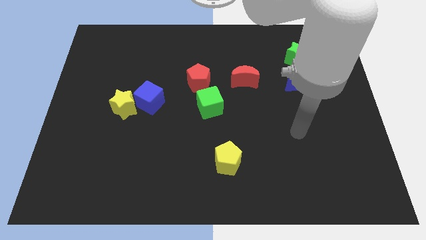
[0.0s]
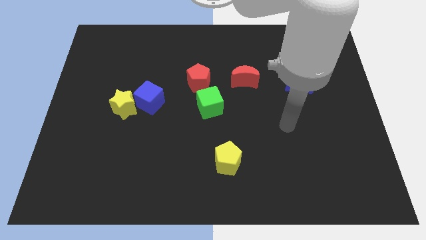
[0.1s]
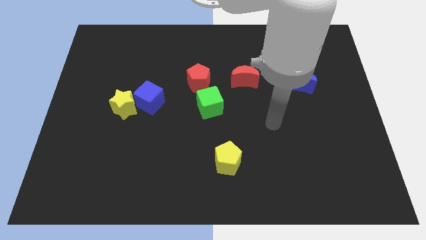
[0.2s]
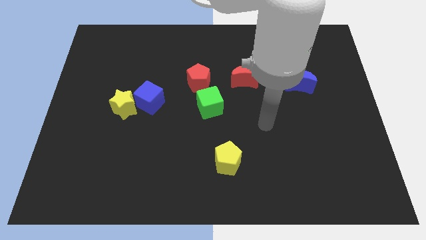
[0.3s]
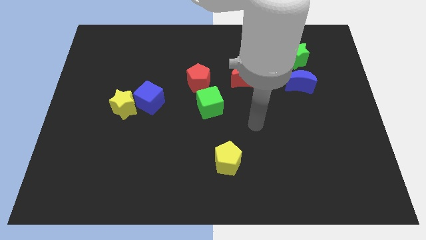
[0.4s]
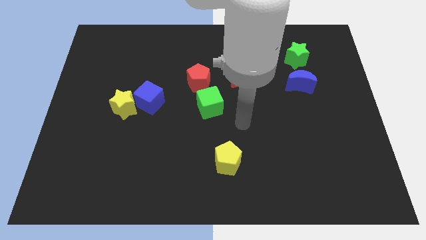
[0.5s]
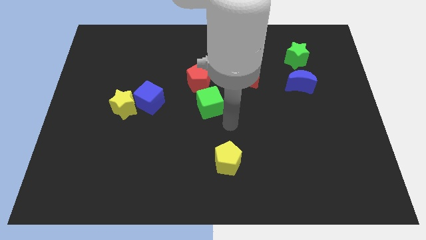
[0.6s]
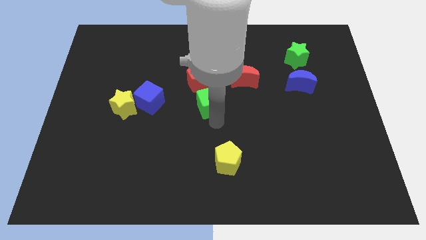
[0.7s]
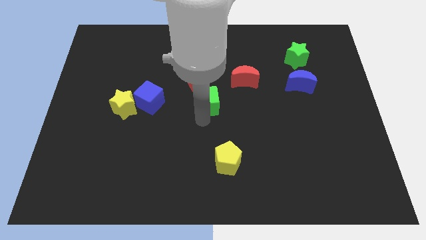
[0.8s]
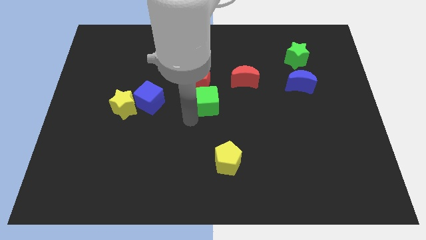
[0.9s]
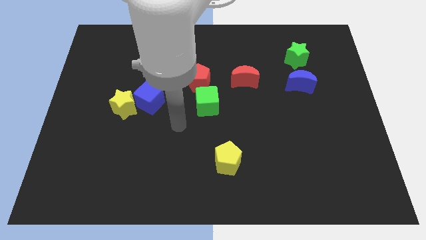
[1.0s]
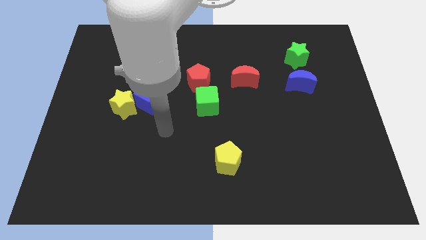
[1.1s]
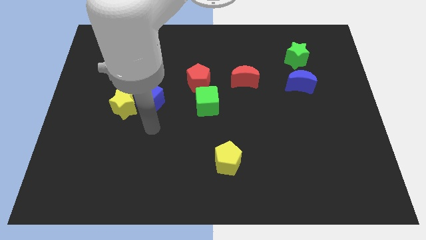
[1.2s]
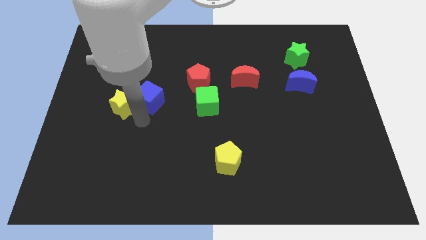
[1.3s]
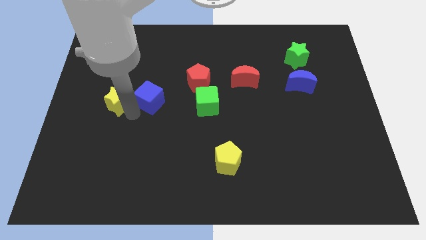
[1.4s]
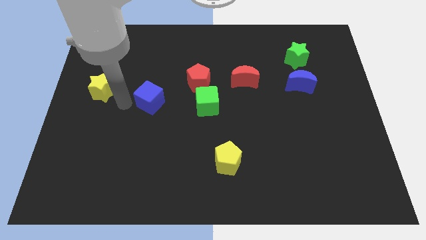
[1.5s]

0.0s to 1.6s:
move the blue cube away from the yellow star

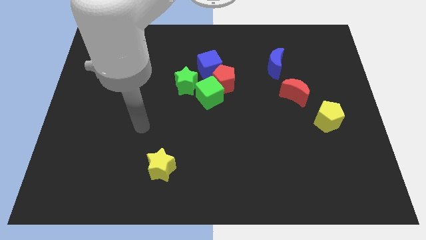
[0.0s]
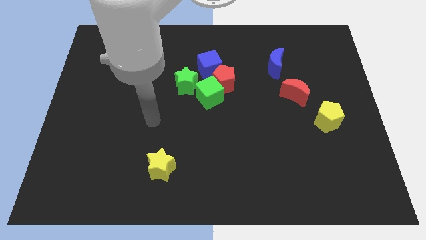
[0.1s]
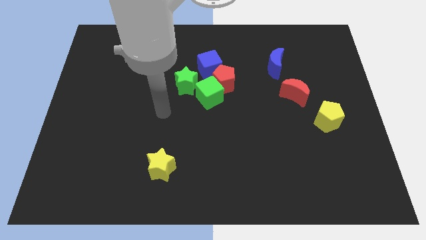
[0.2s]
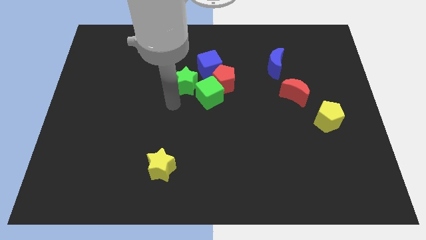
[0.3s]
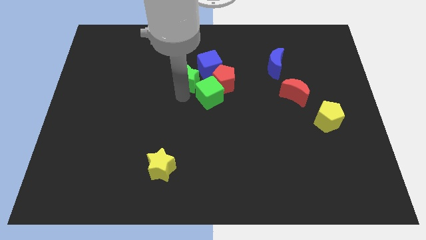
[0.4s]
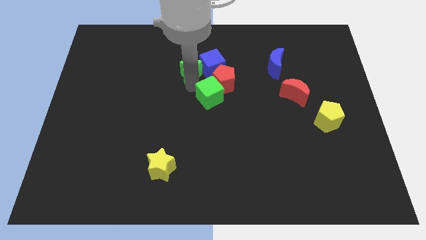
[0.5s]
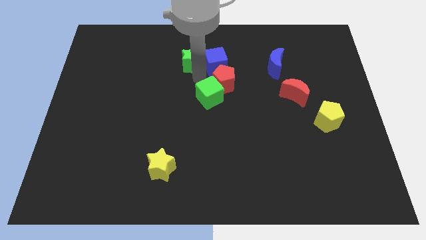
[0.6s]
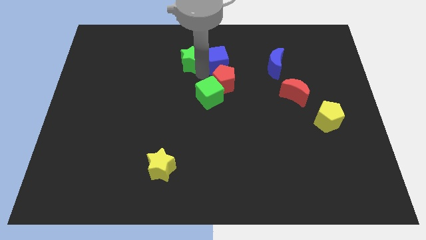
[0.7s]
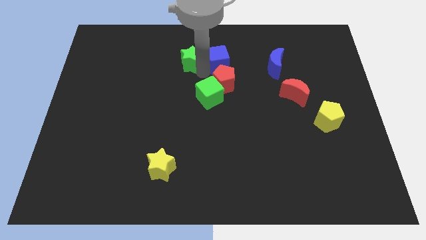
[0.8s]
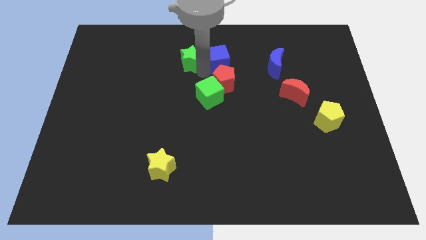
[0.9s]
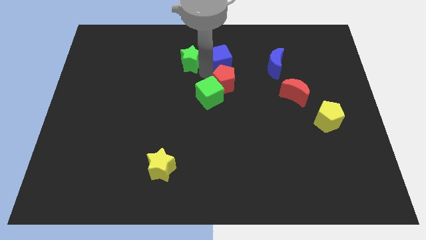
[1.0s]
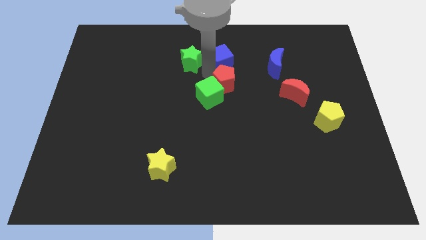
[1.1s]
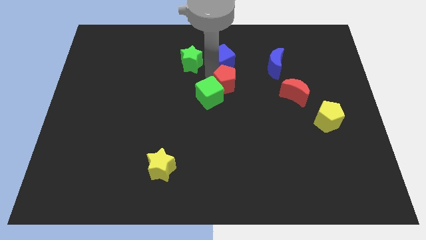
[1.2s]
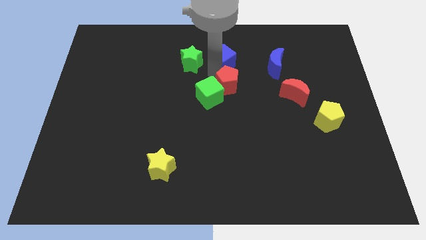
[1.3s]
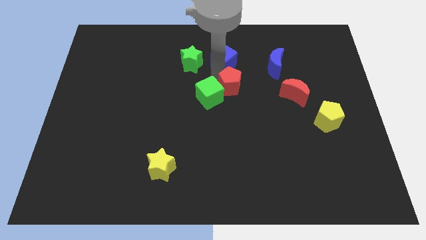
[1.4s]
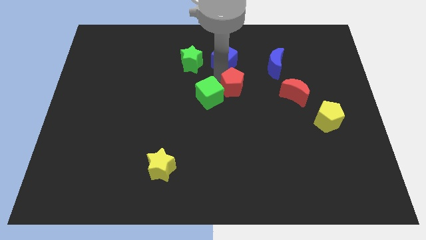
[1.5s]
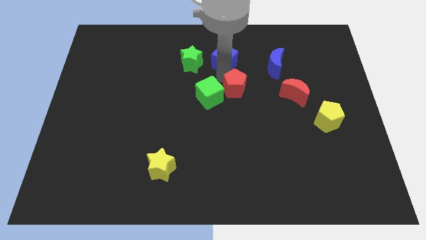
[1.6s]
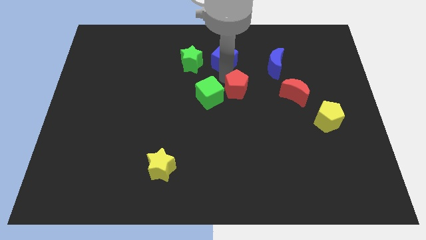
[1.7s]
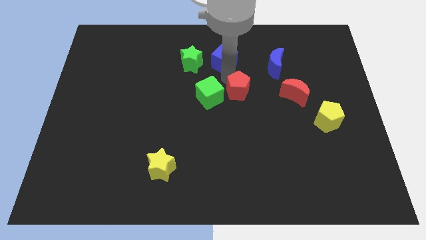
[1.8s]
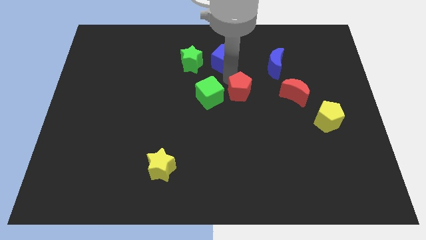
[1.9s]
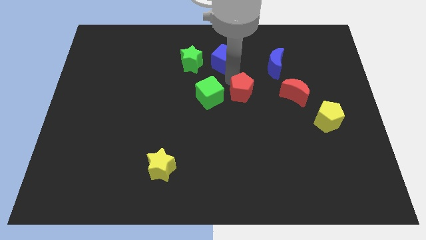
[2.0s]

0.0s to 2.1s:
move the red pentagon away from the clump

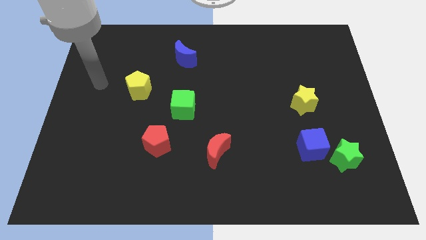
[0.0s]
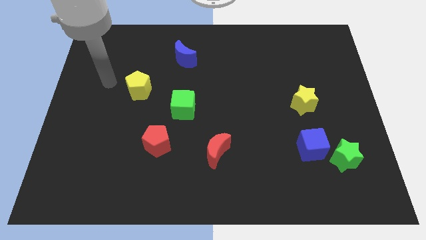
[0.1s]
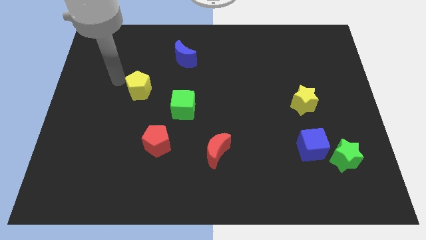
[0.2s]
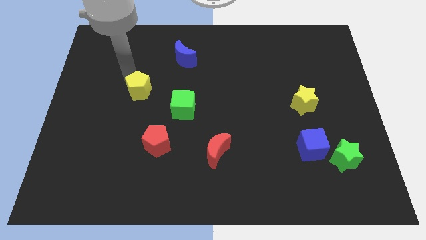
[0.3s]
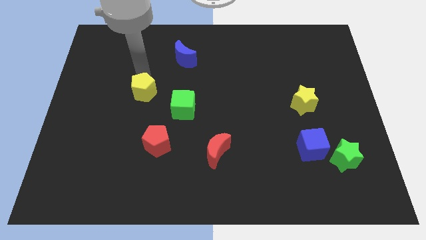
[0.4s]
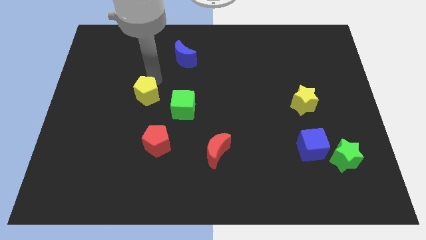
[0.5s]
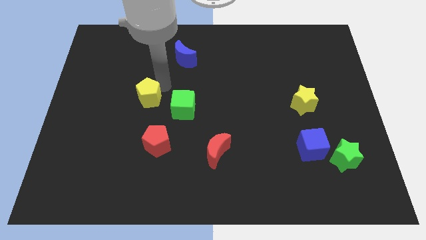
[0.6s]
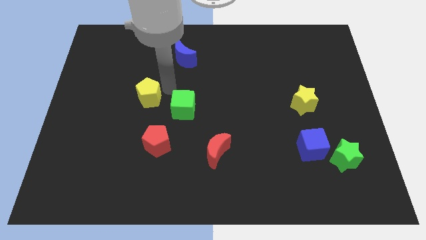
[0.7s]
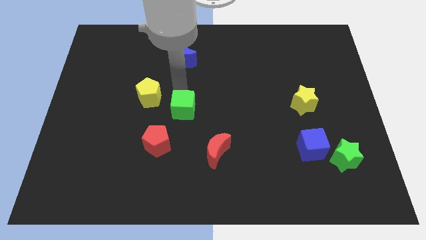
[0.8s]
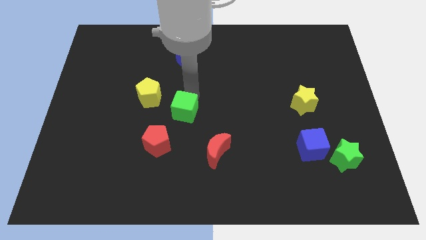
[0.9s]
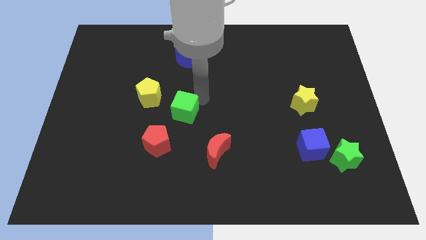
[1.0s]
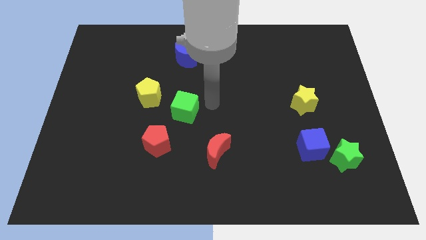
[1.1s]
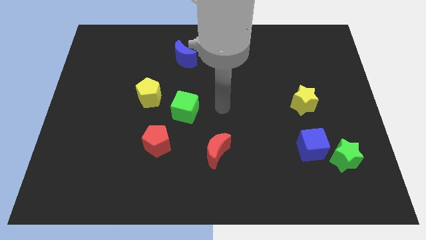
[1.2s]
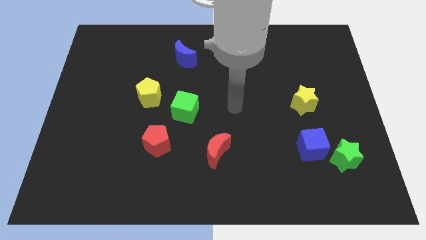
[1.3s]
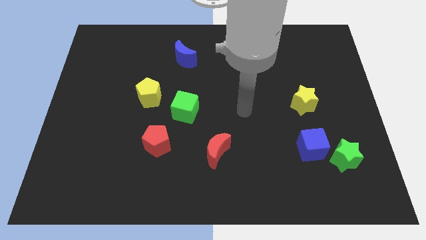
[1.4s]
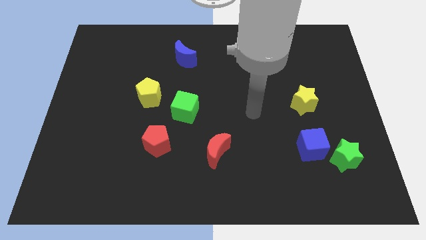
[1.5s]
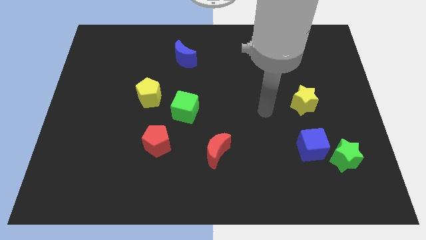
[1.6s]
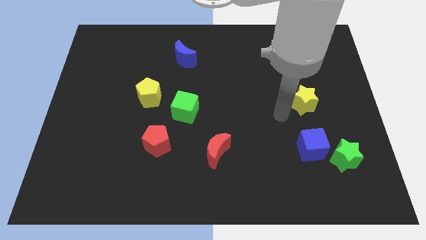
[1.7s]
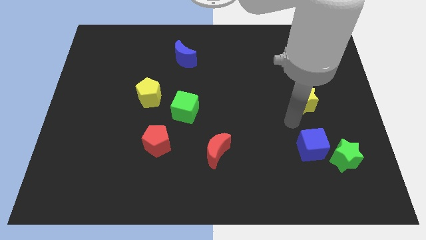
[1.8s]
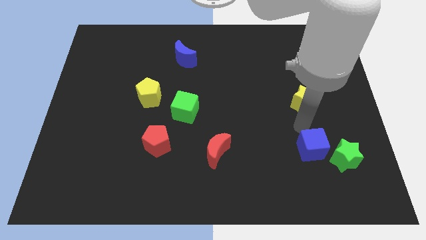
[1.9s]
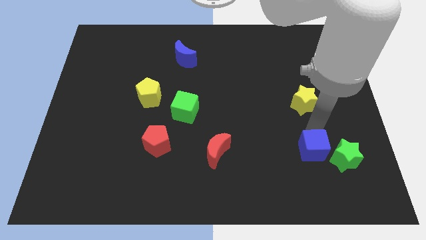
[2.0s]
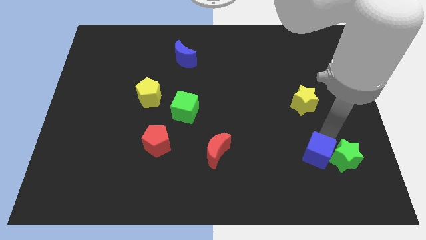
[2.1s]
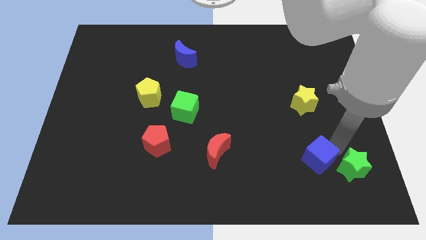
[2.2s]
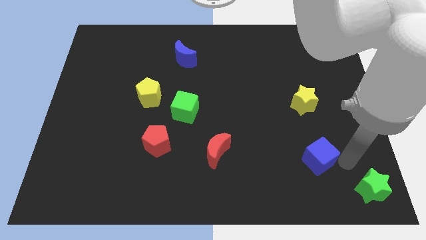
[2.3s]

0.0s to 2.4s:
move the blue cube away from the green star

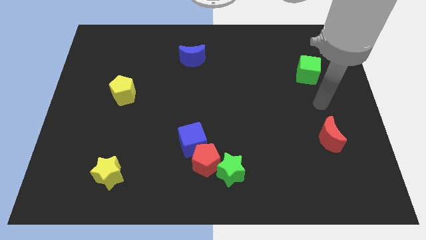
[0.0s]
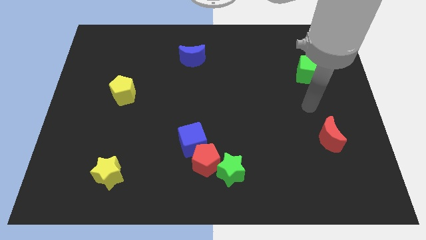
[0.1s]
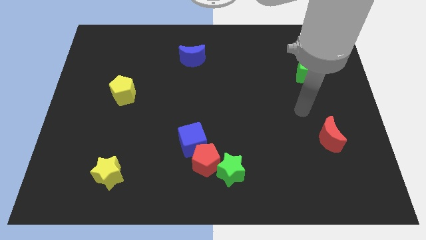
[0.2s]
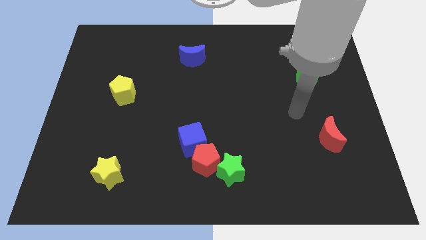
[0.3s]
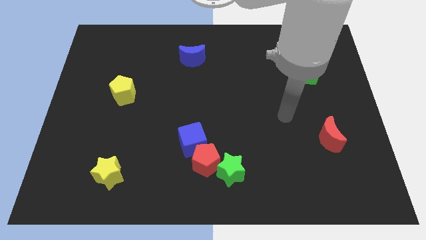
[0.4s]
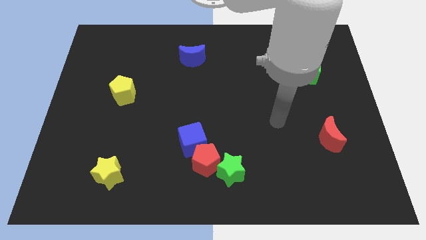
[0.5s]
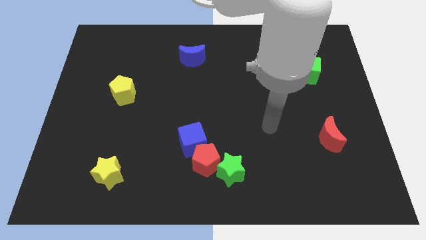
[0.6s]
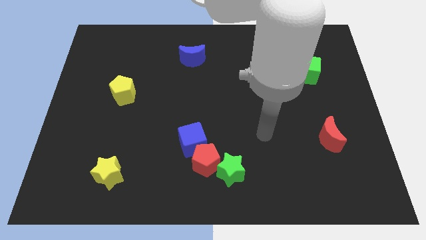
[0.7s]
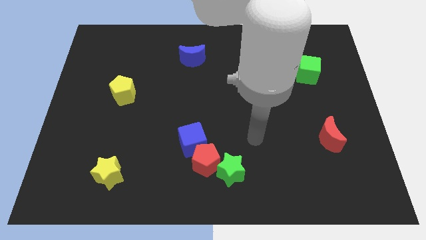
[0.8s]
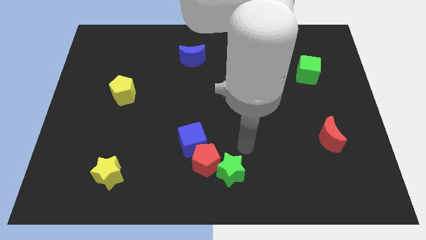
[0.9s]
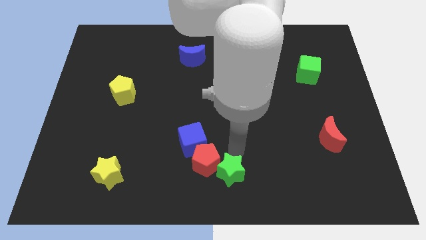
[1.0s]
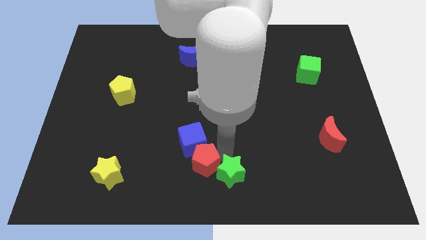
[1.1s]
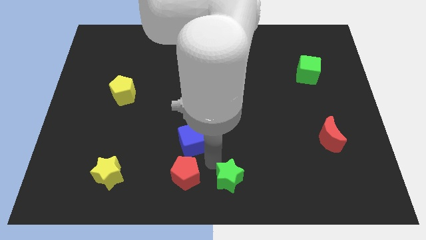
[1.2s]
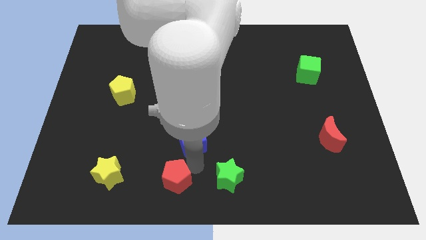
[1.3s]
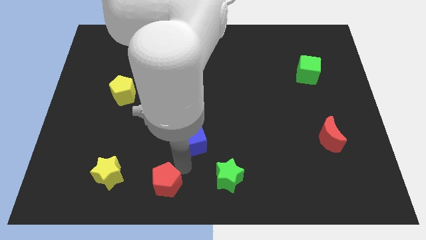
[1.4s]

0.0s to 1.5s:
move the blue cube away from the red pentagon

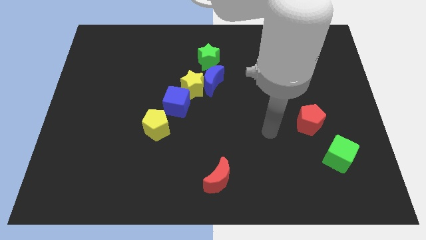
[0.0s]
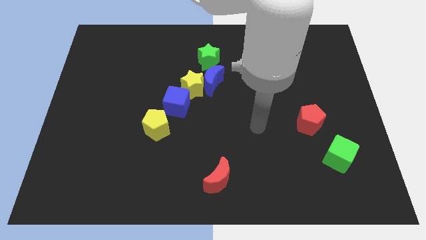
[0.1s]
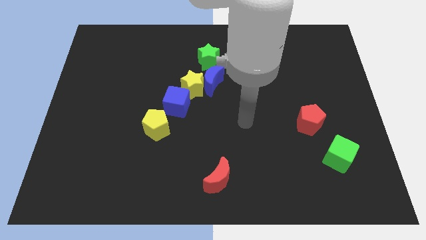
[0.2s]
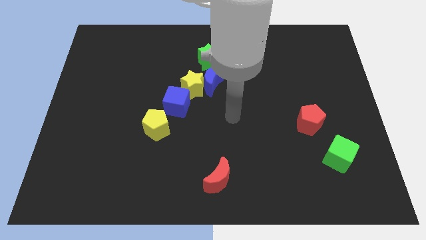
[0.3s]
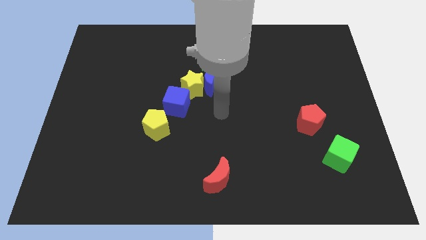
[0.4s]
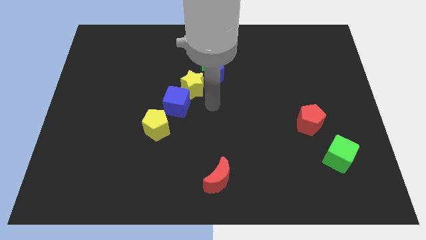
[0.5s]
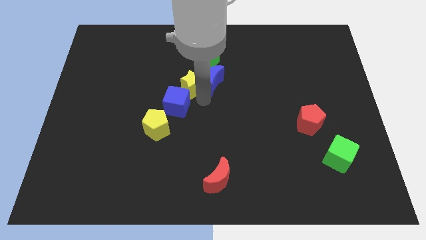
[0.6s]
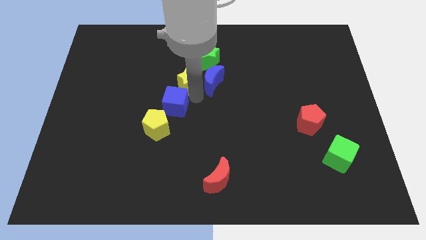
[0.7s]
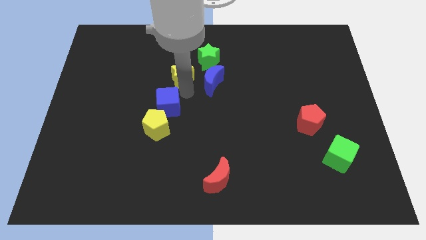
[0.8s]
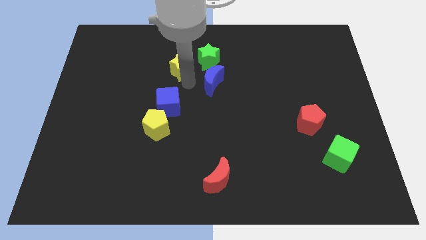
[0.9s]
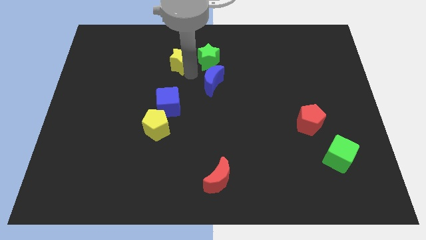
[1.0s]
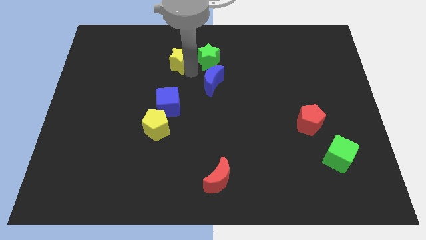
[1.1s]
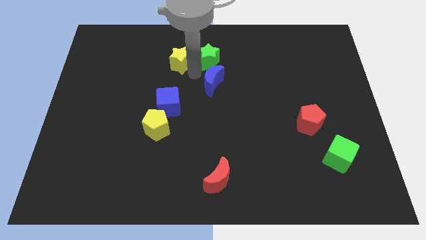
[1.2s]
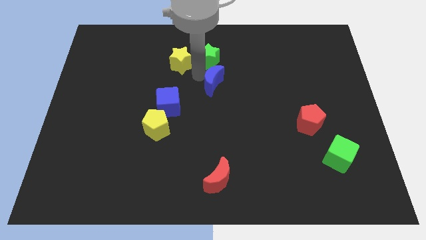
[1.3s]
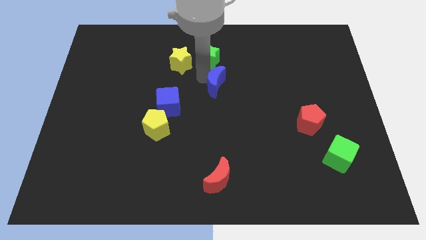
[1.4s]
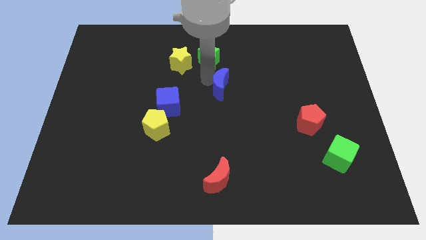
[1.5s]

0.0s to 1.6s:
move the blue moon away from the yellow star and green star

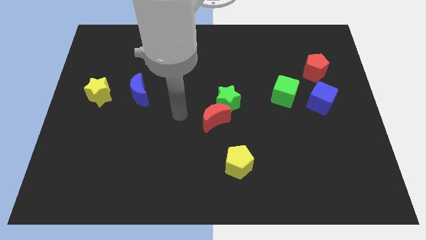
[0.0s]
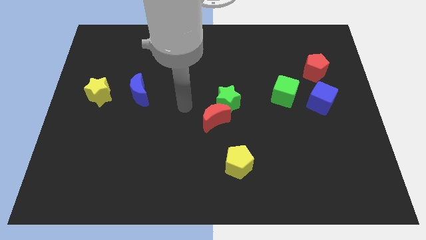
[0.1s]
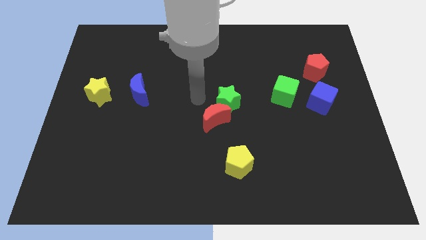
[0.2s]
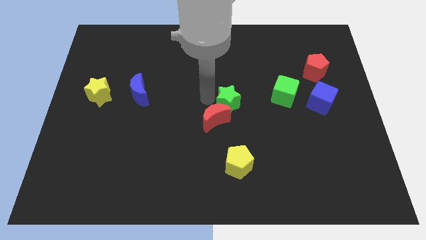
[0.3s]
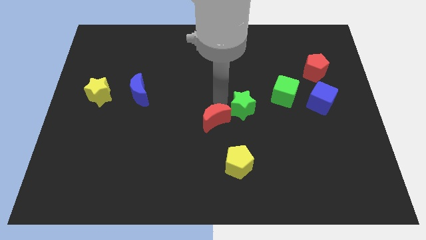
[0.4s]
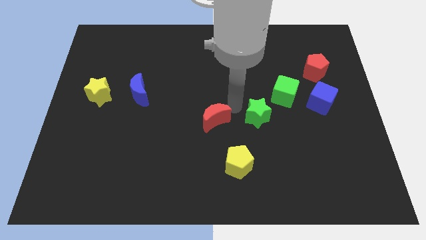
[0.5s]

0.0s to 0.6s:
move the red moon away from the green star
